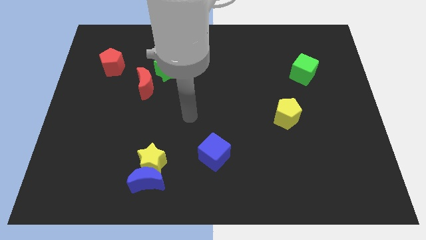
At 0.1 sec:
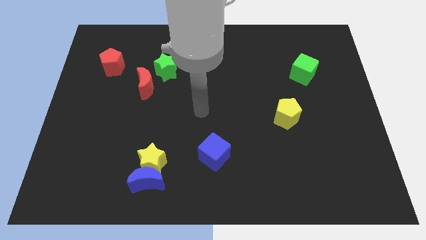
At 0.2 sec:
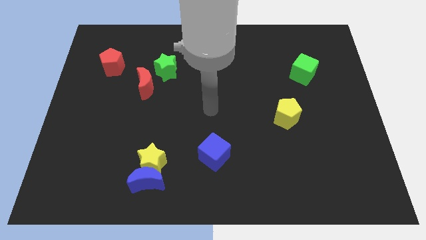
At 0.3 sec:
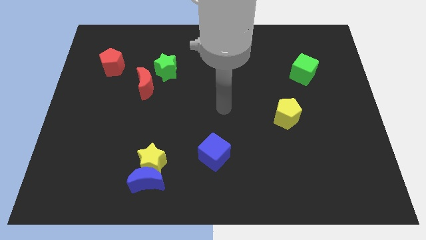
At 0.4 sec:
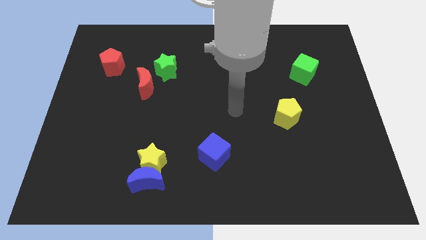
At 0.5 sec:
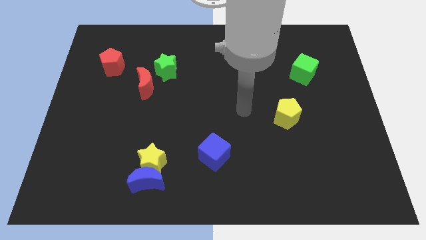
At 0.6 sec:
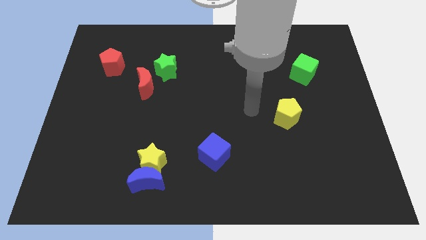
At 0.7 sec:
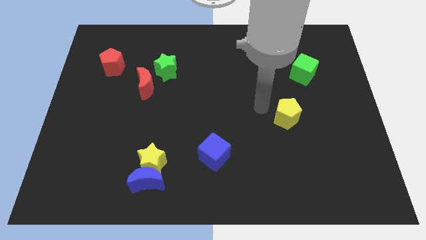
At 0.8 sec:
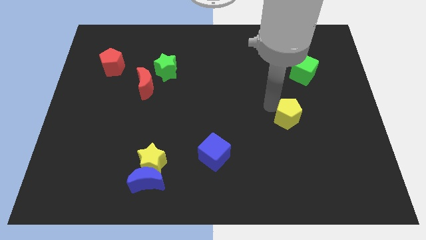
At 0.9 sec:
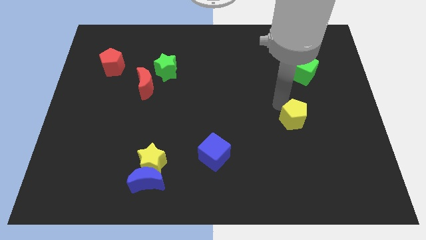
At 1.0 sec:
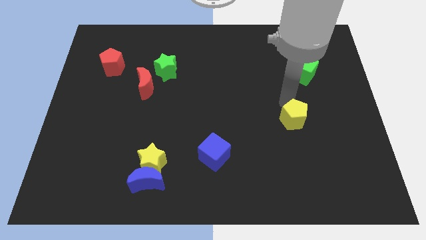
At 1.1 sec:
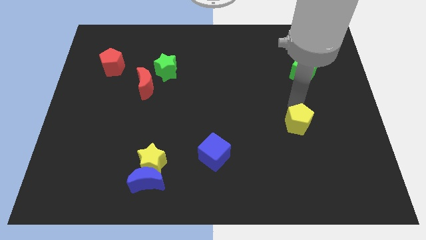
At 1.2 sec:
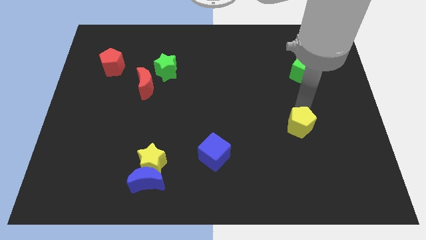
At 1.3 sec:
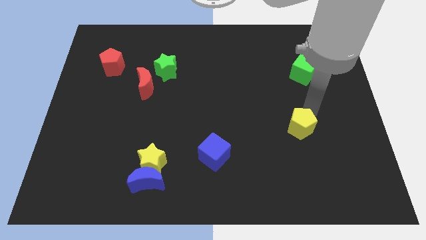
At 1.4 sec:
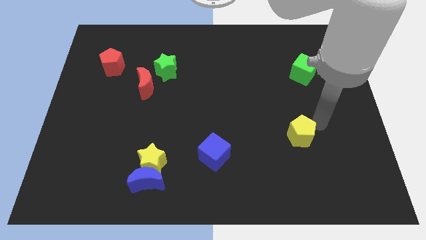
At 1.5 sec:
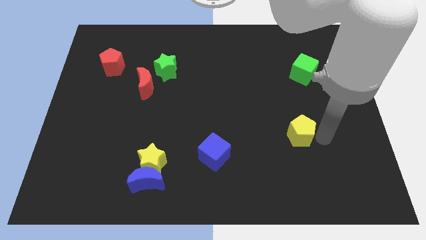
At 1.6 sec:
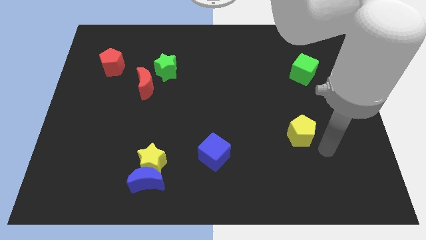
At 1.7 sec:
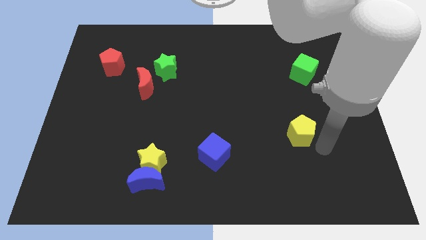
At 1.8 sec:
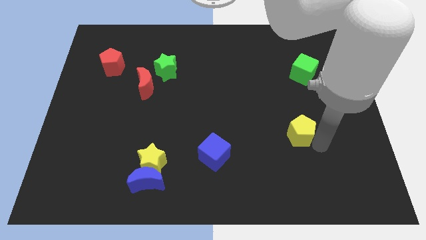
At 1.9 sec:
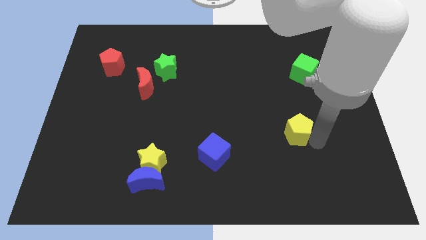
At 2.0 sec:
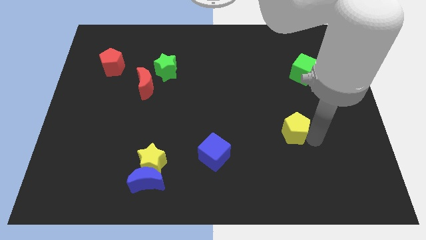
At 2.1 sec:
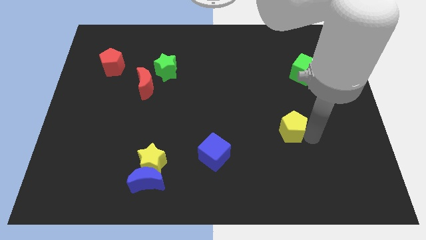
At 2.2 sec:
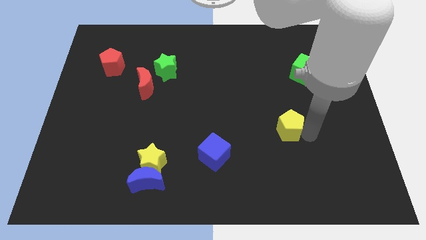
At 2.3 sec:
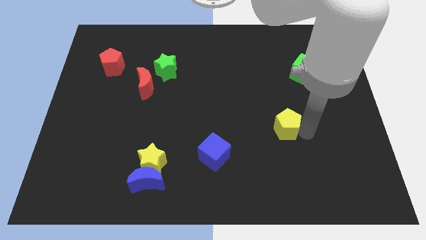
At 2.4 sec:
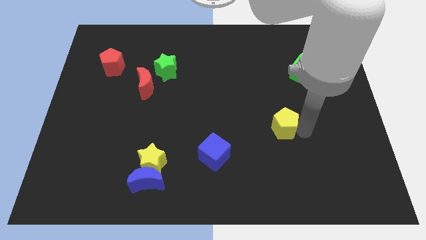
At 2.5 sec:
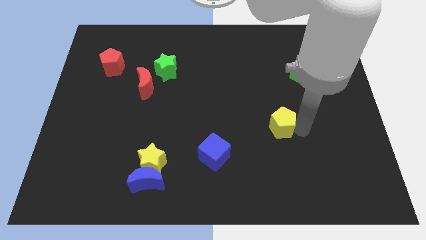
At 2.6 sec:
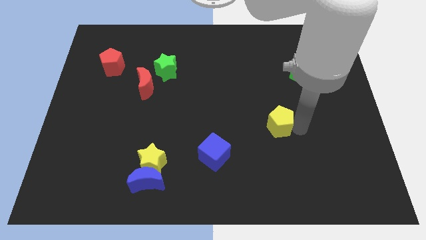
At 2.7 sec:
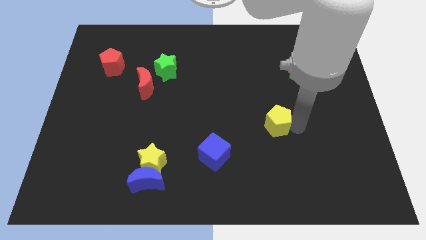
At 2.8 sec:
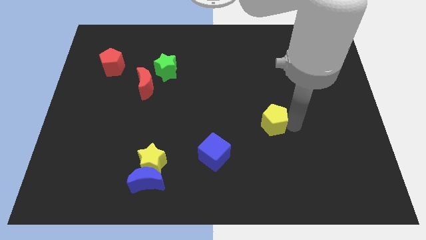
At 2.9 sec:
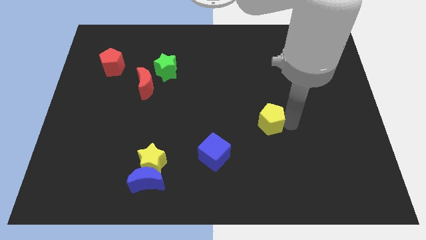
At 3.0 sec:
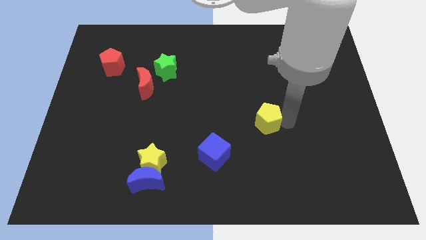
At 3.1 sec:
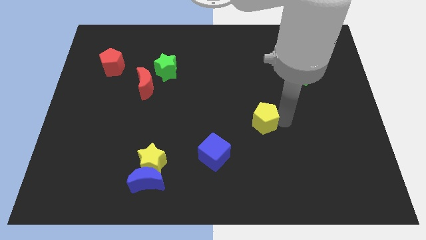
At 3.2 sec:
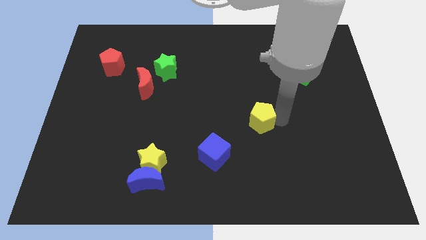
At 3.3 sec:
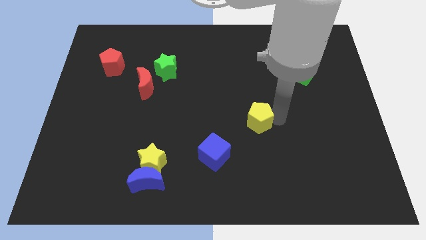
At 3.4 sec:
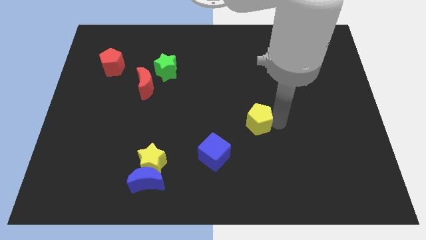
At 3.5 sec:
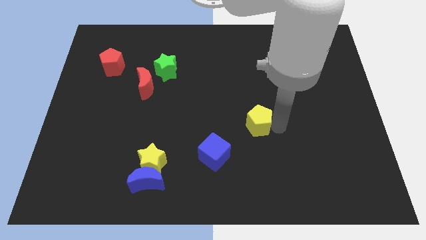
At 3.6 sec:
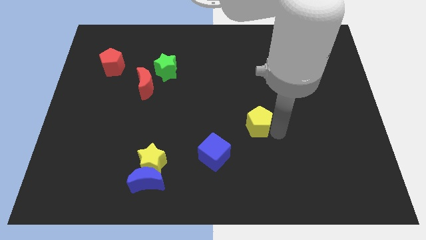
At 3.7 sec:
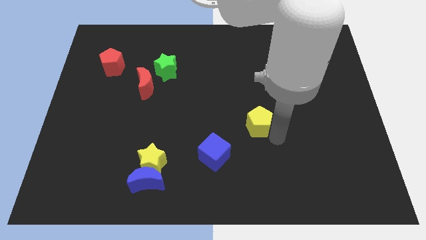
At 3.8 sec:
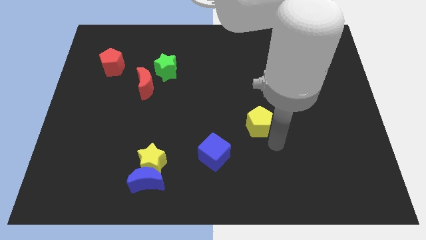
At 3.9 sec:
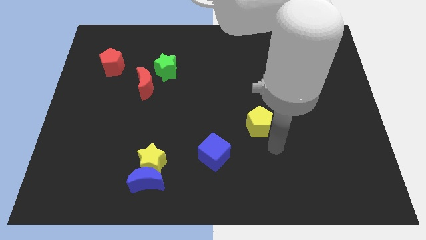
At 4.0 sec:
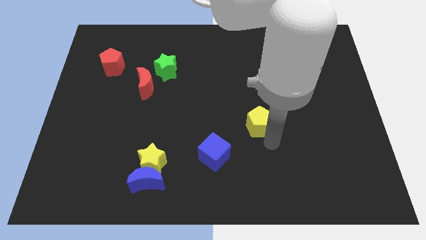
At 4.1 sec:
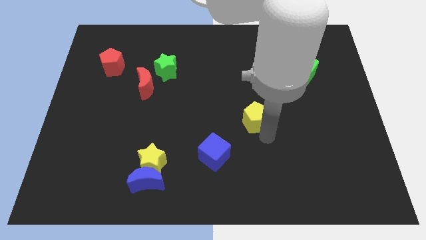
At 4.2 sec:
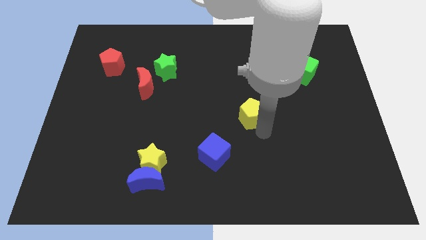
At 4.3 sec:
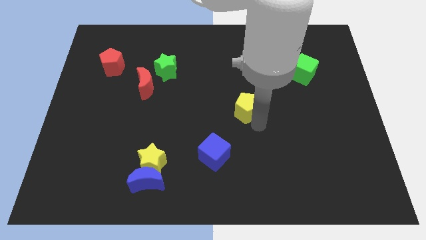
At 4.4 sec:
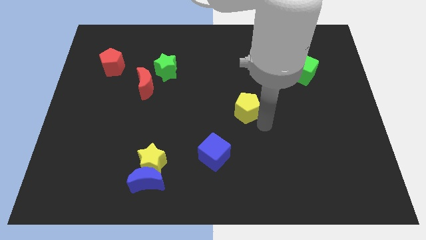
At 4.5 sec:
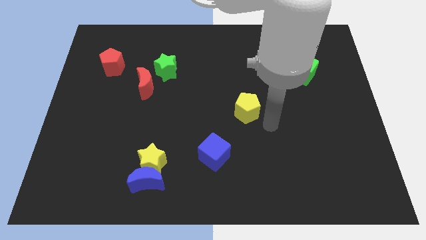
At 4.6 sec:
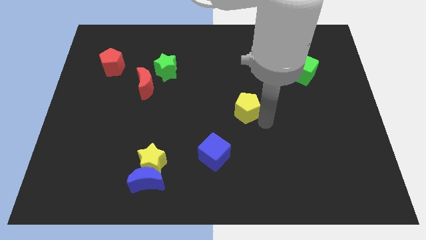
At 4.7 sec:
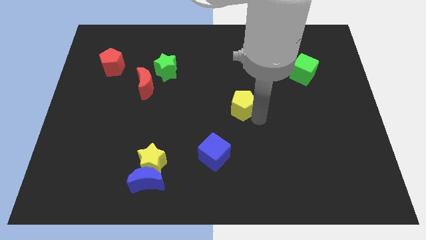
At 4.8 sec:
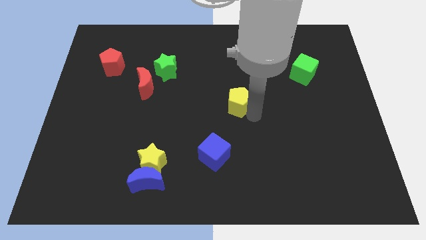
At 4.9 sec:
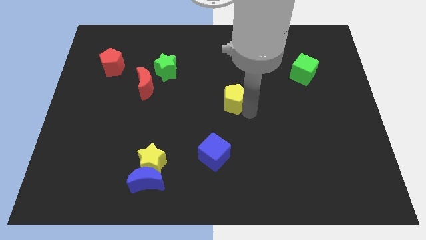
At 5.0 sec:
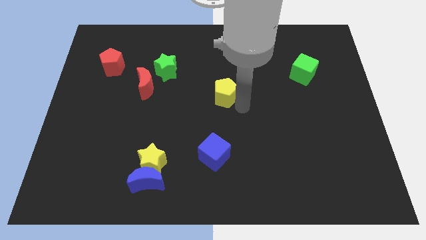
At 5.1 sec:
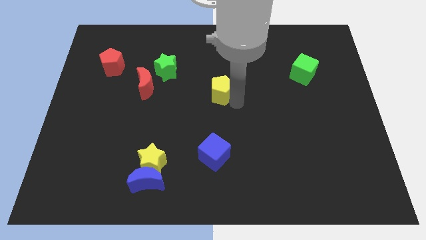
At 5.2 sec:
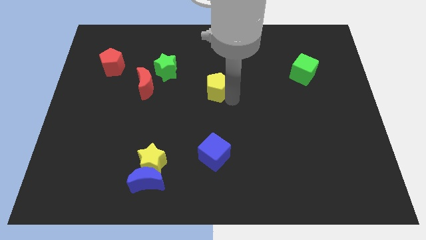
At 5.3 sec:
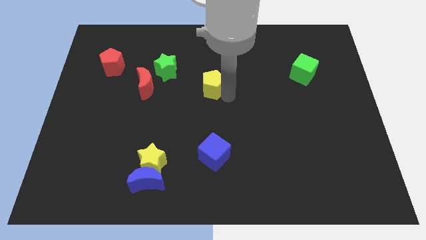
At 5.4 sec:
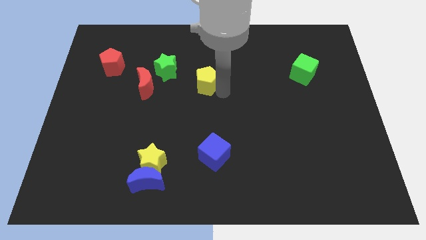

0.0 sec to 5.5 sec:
push the yellow pentagon to the bottom right side of the green star

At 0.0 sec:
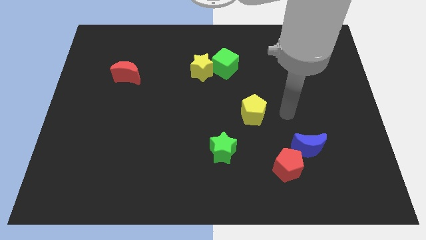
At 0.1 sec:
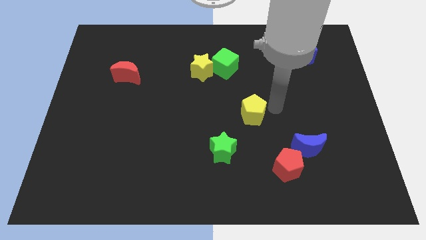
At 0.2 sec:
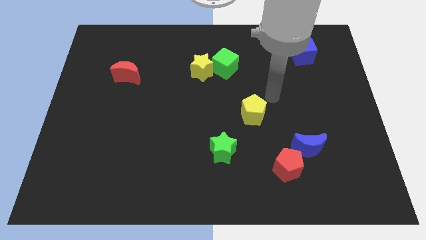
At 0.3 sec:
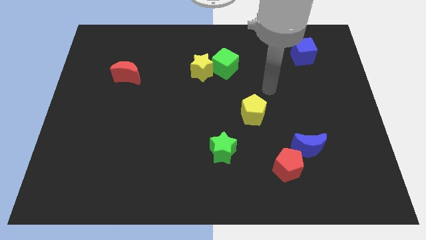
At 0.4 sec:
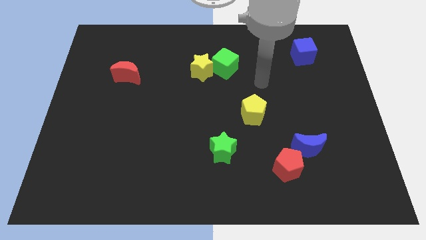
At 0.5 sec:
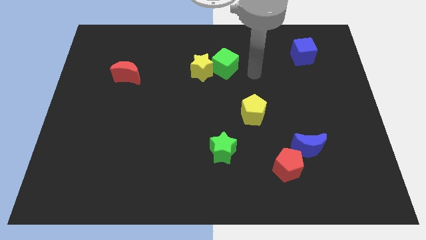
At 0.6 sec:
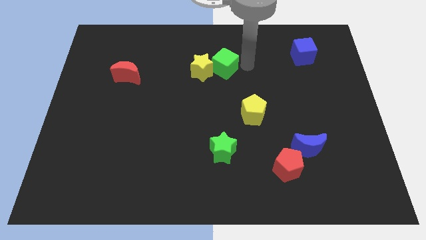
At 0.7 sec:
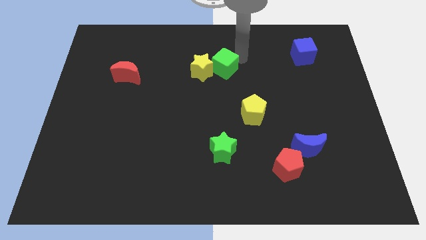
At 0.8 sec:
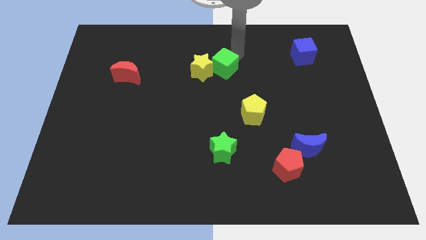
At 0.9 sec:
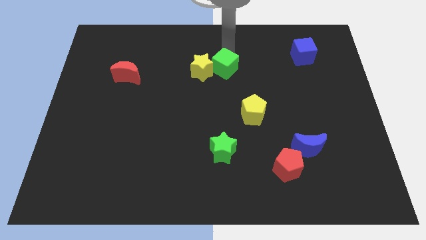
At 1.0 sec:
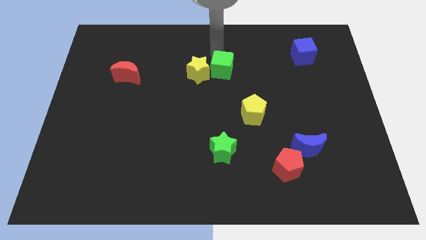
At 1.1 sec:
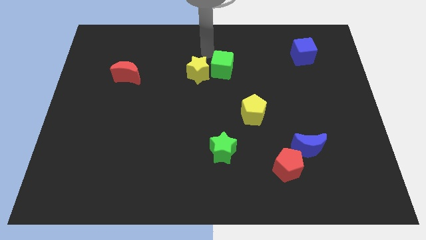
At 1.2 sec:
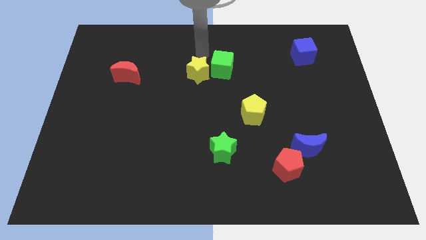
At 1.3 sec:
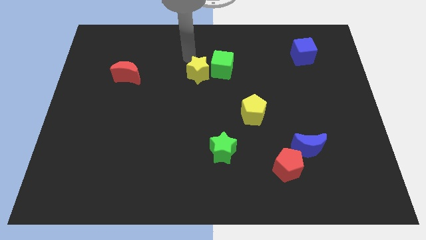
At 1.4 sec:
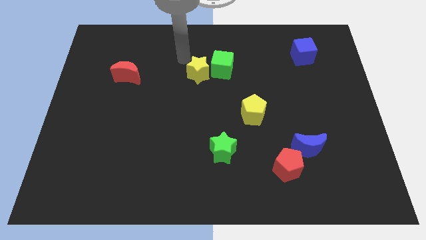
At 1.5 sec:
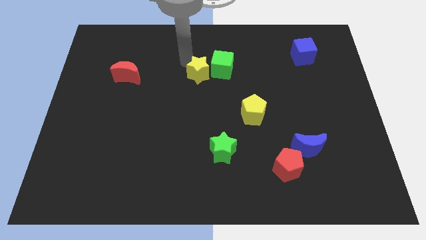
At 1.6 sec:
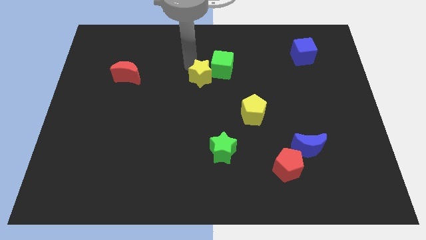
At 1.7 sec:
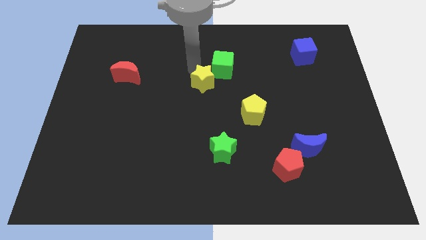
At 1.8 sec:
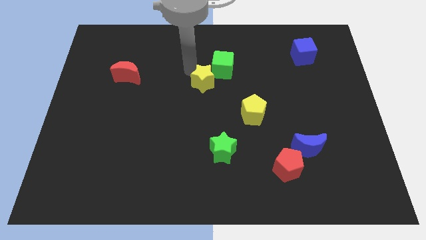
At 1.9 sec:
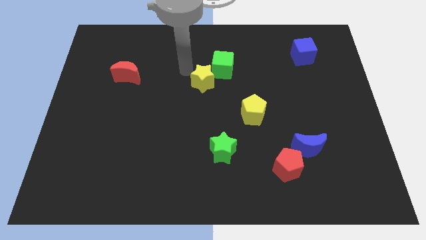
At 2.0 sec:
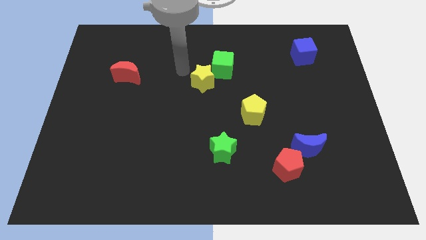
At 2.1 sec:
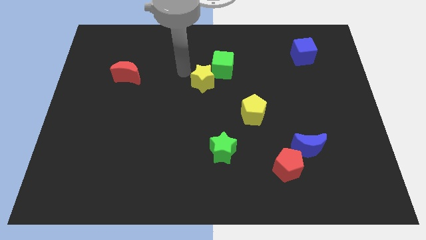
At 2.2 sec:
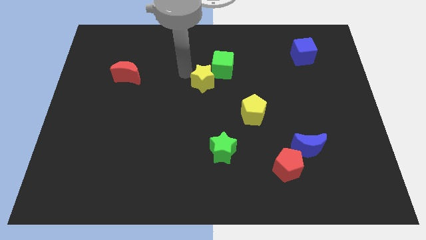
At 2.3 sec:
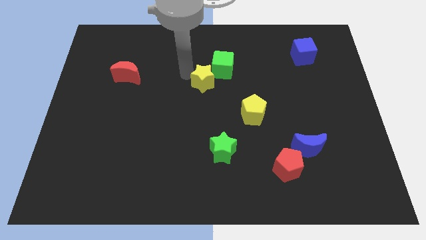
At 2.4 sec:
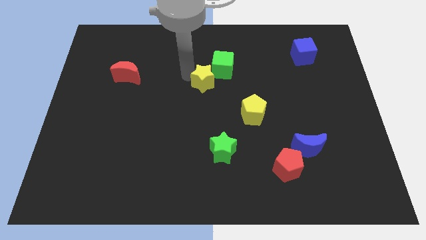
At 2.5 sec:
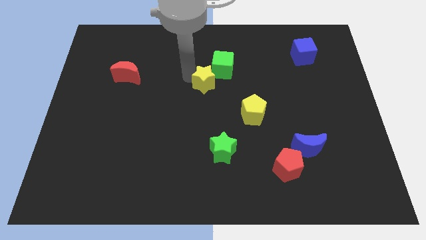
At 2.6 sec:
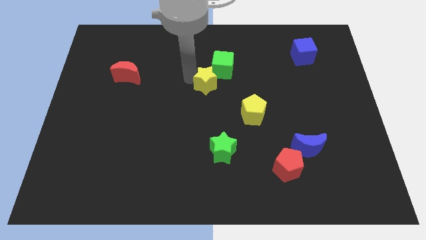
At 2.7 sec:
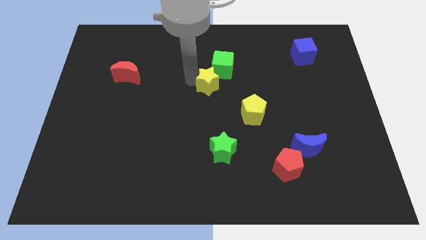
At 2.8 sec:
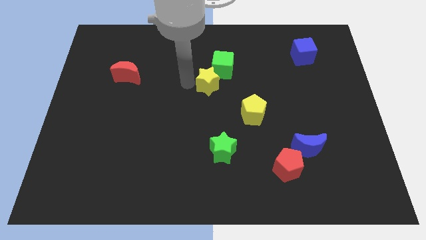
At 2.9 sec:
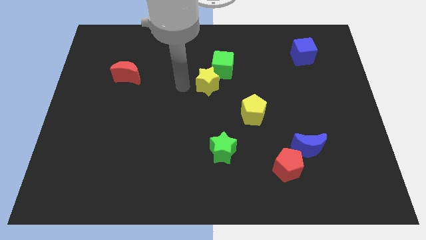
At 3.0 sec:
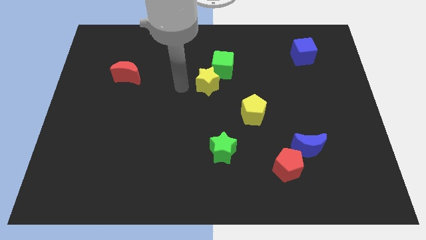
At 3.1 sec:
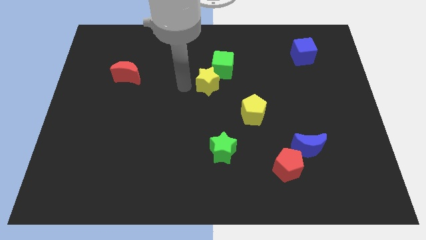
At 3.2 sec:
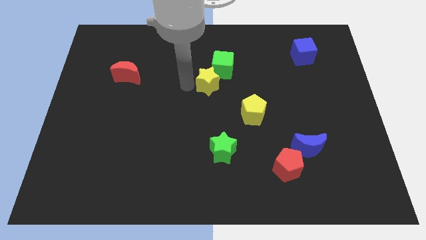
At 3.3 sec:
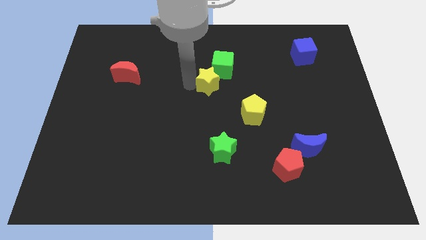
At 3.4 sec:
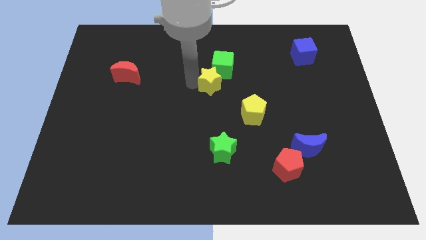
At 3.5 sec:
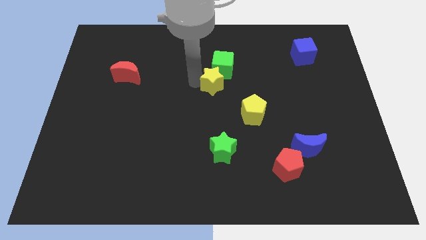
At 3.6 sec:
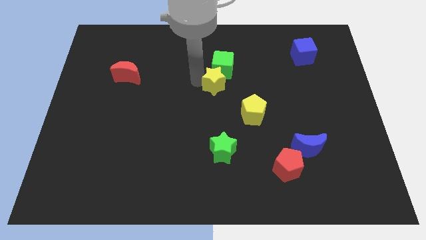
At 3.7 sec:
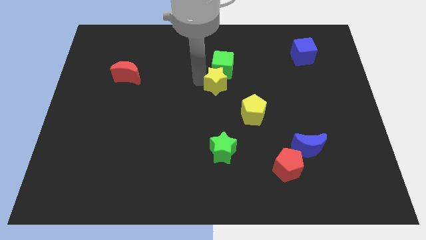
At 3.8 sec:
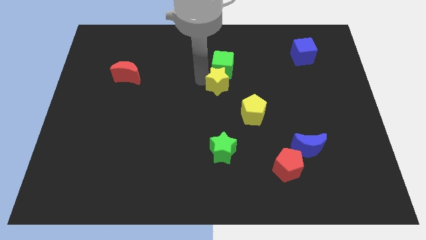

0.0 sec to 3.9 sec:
push the yellow star to the bottom right side of the green cube
